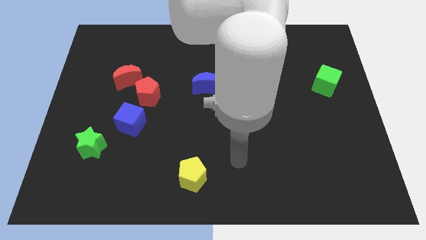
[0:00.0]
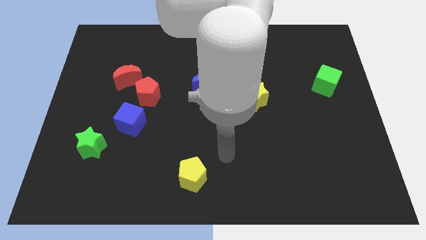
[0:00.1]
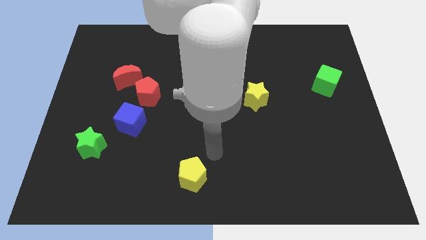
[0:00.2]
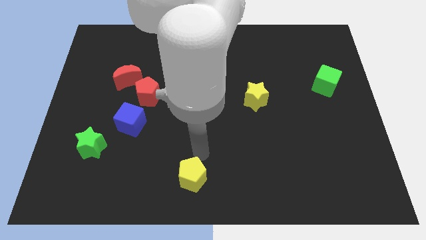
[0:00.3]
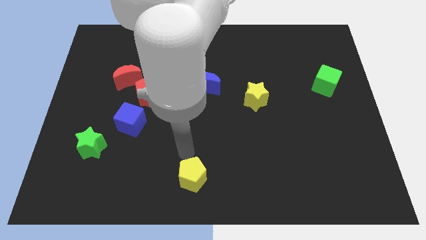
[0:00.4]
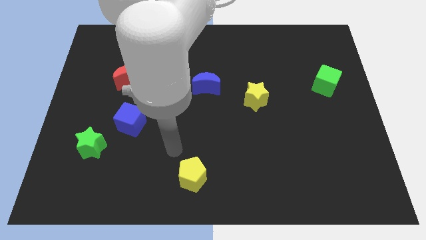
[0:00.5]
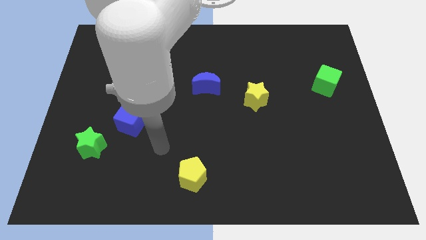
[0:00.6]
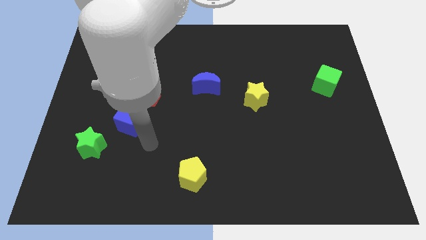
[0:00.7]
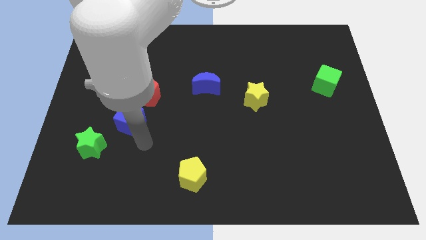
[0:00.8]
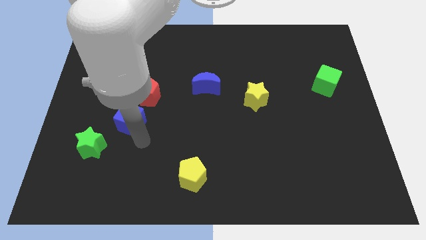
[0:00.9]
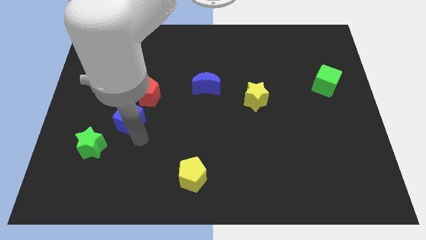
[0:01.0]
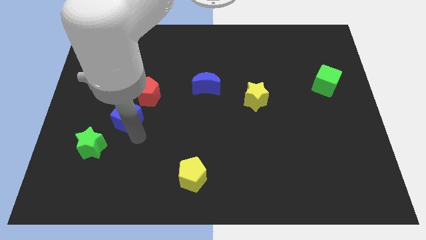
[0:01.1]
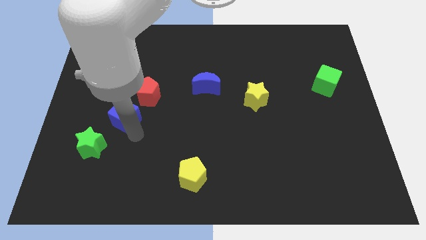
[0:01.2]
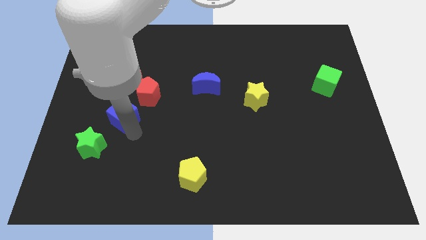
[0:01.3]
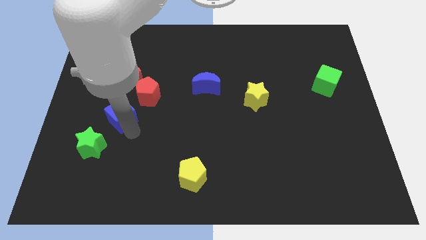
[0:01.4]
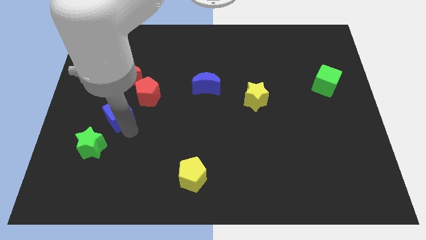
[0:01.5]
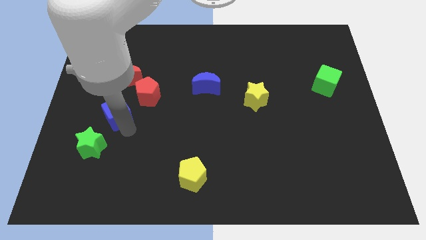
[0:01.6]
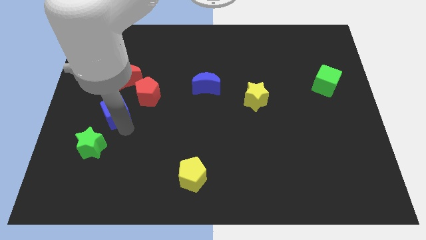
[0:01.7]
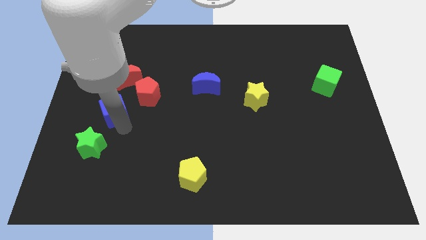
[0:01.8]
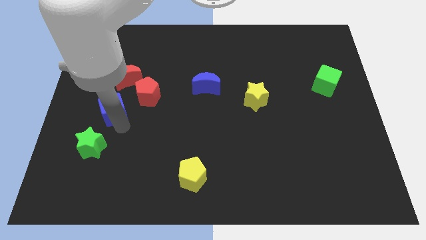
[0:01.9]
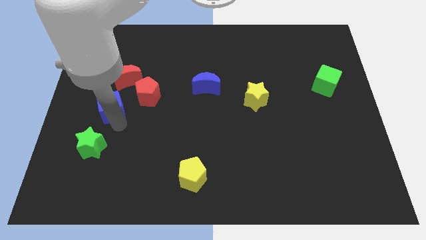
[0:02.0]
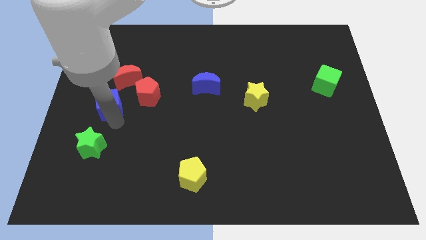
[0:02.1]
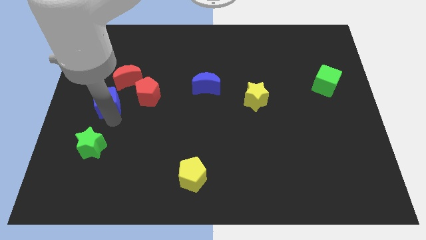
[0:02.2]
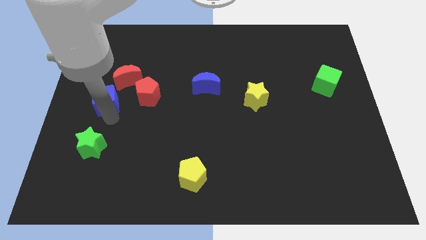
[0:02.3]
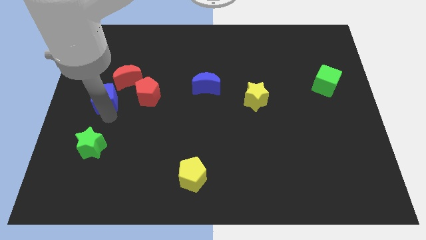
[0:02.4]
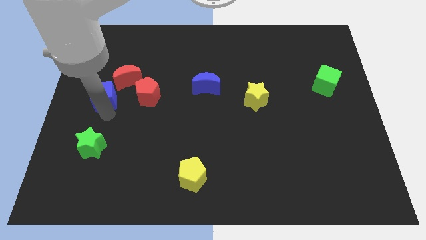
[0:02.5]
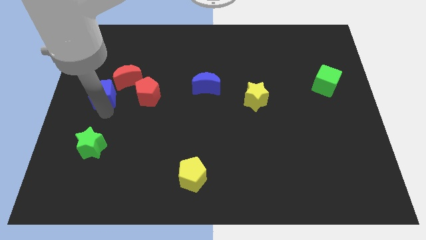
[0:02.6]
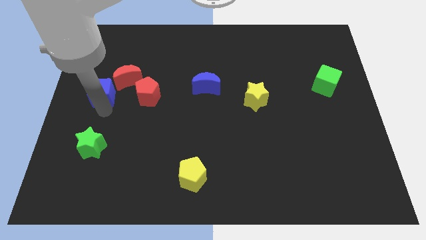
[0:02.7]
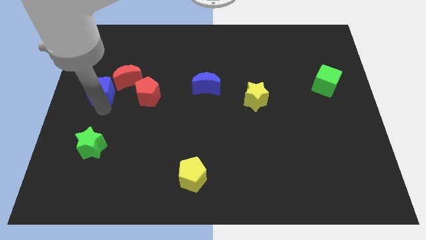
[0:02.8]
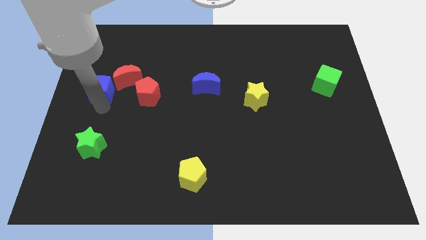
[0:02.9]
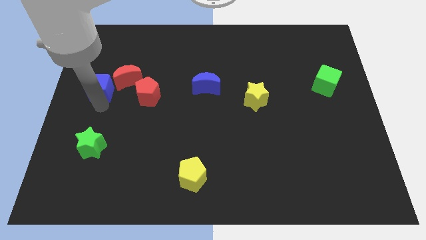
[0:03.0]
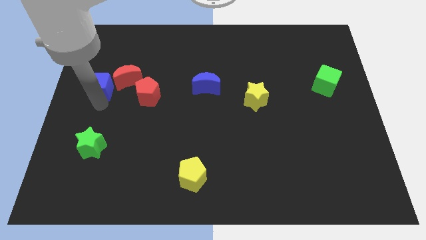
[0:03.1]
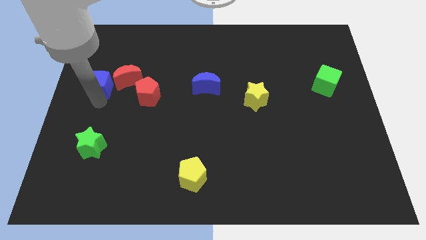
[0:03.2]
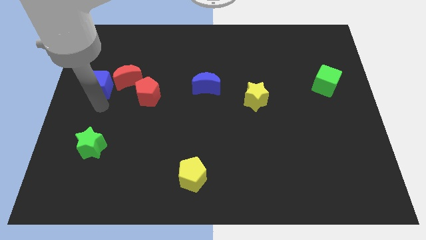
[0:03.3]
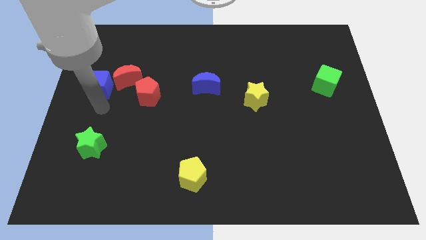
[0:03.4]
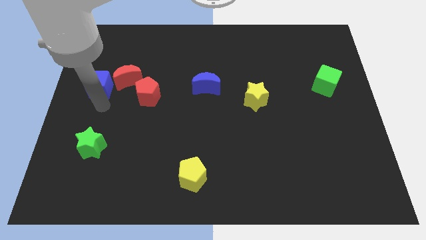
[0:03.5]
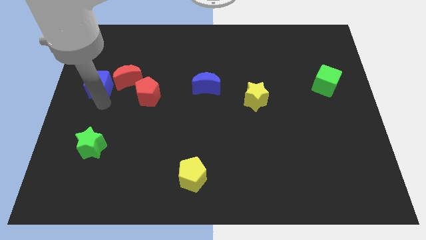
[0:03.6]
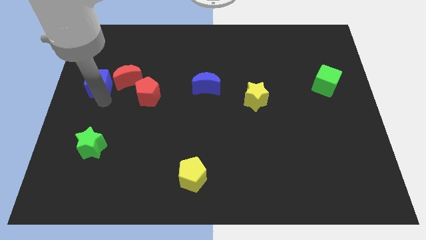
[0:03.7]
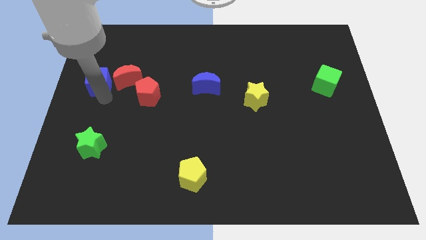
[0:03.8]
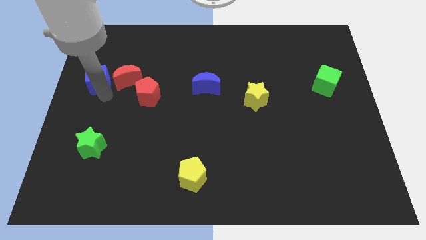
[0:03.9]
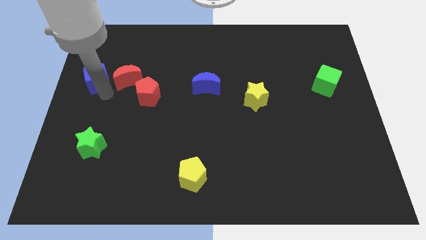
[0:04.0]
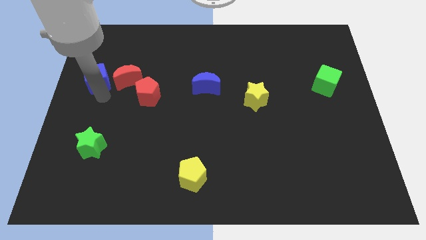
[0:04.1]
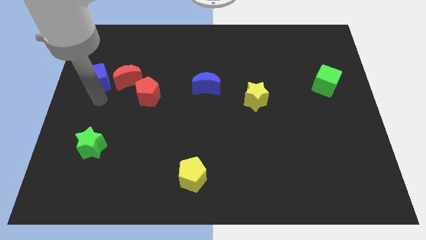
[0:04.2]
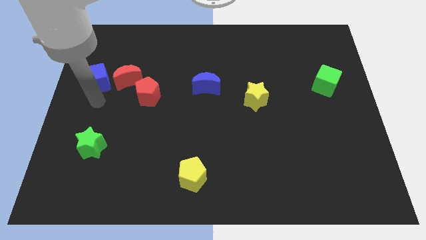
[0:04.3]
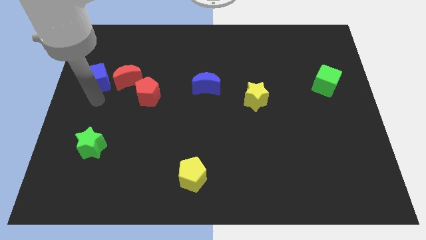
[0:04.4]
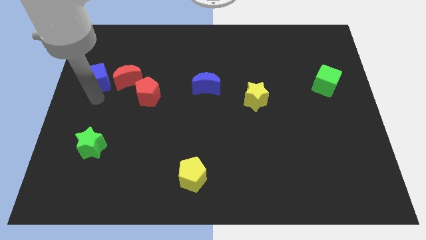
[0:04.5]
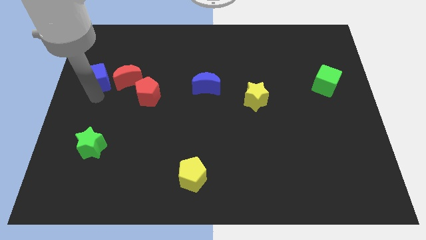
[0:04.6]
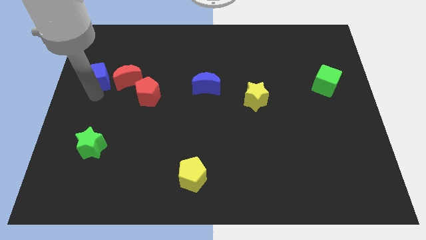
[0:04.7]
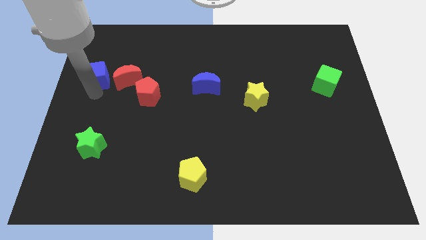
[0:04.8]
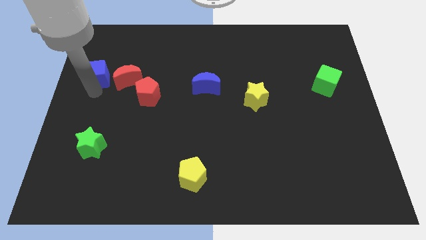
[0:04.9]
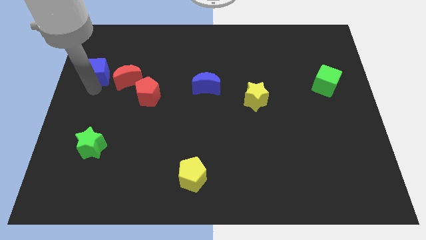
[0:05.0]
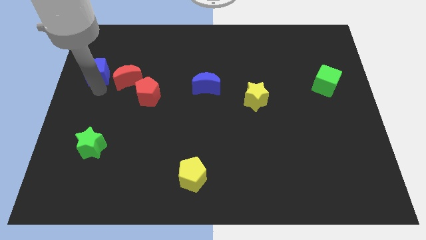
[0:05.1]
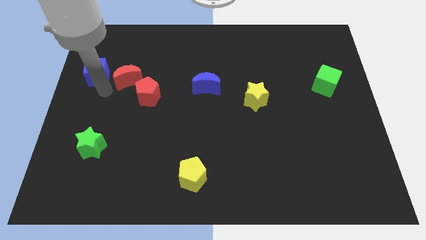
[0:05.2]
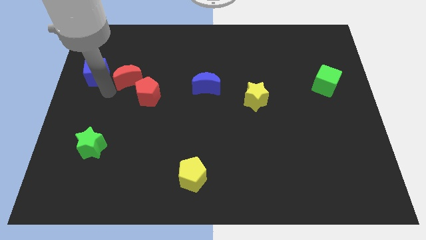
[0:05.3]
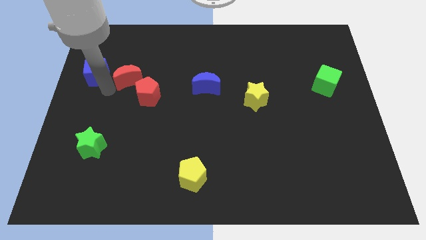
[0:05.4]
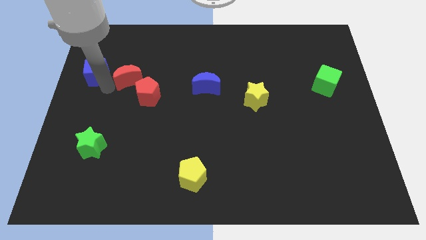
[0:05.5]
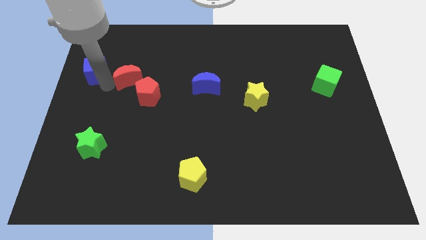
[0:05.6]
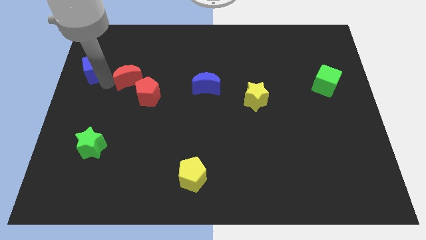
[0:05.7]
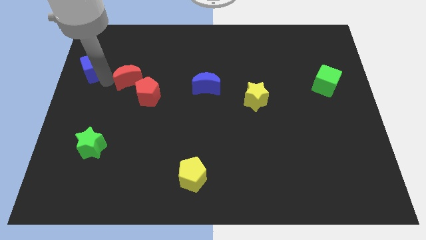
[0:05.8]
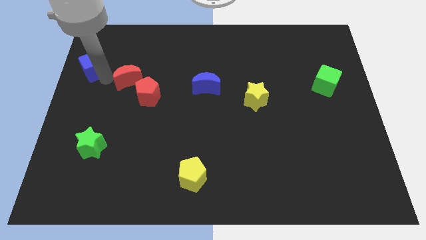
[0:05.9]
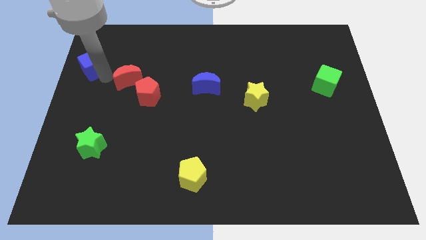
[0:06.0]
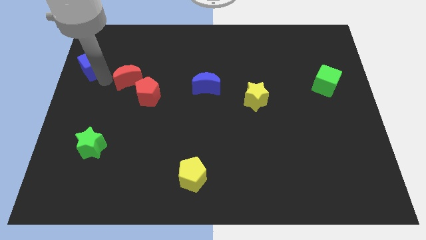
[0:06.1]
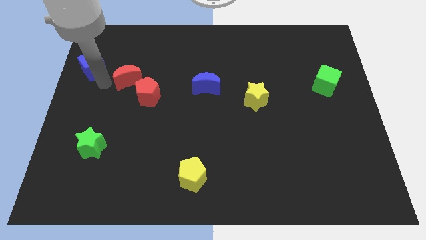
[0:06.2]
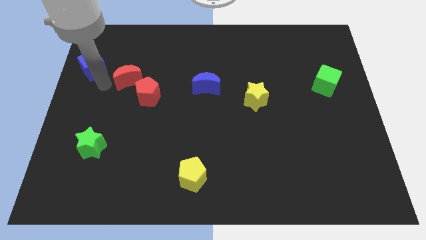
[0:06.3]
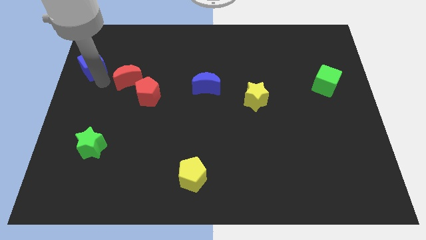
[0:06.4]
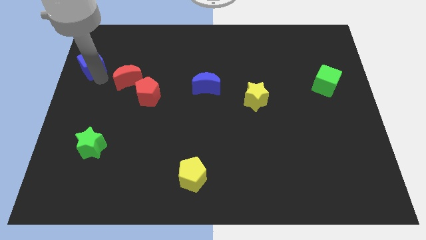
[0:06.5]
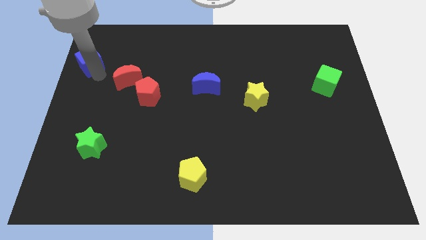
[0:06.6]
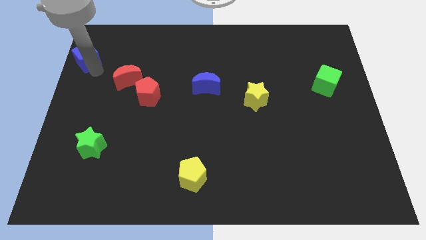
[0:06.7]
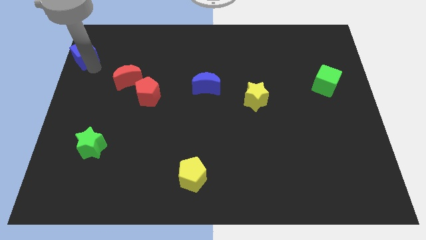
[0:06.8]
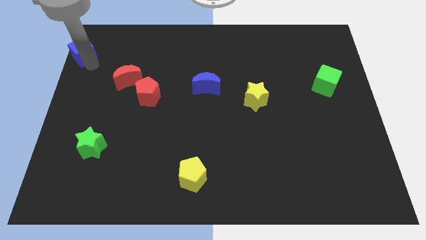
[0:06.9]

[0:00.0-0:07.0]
put the blue cube to the upper left corner
